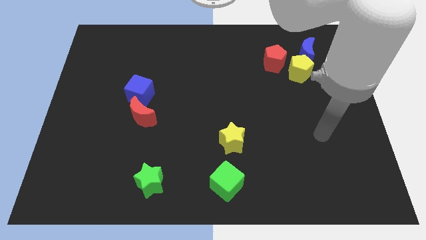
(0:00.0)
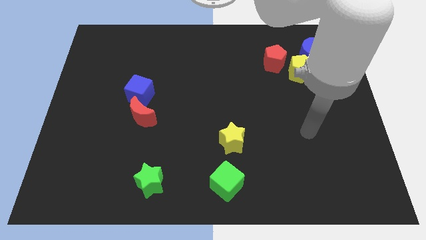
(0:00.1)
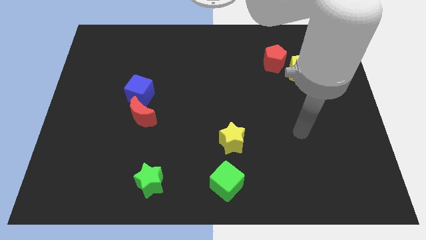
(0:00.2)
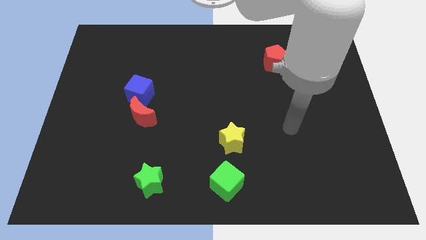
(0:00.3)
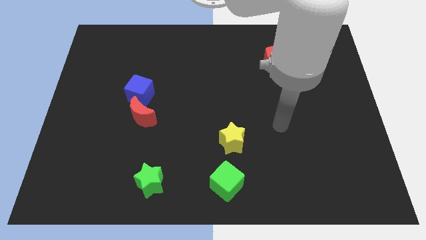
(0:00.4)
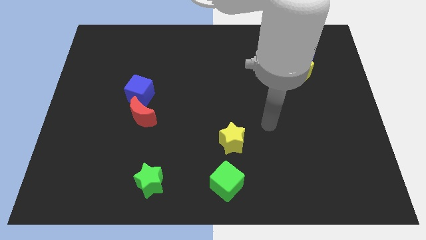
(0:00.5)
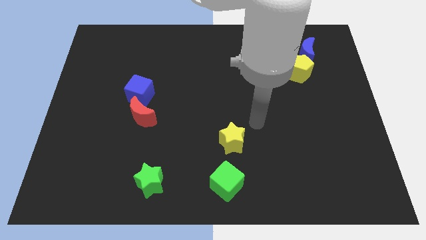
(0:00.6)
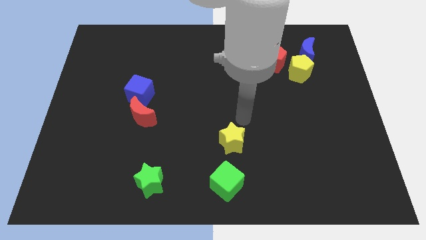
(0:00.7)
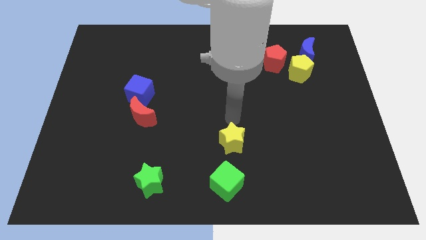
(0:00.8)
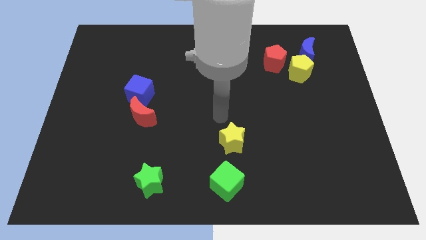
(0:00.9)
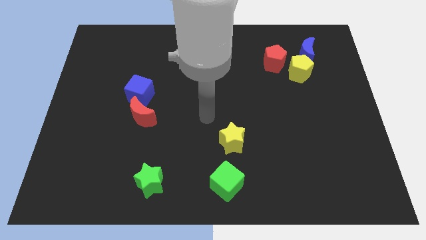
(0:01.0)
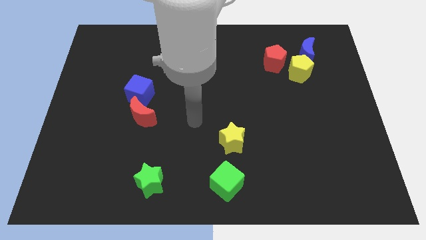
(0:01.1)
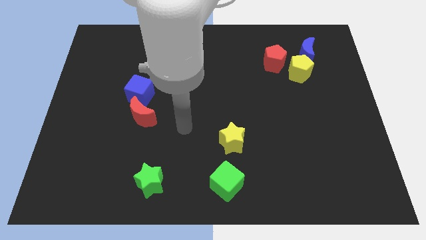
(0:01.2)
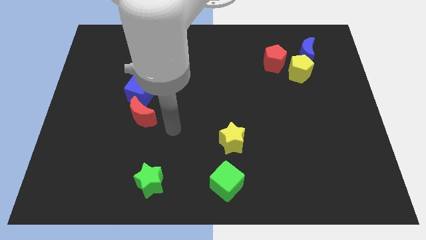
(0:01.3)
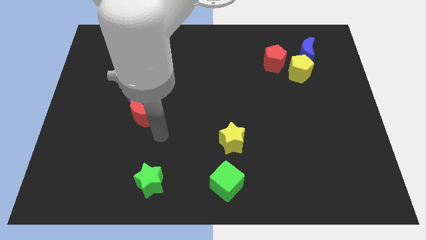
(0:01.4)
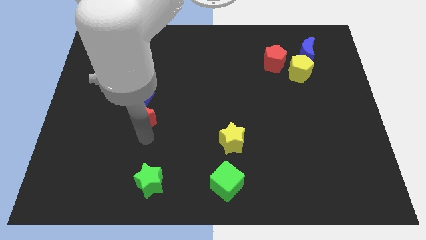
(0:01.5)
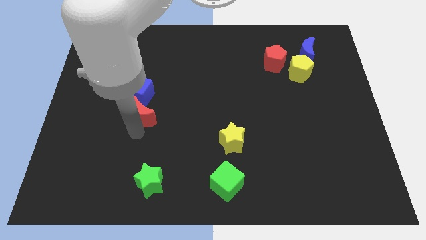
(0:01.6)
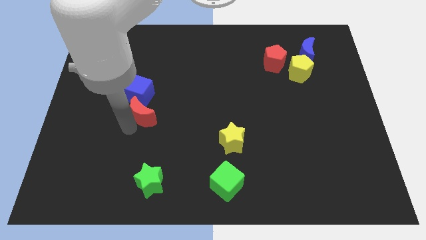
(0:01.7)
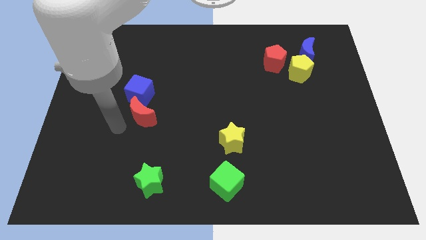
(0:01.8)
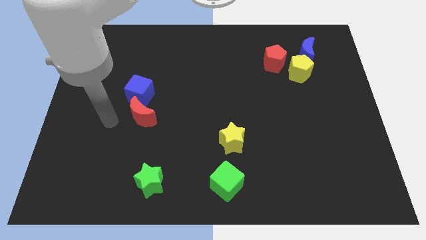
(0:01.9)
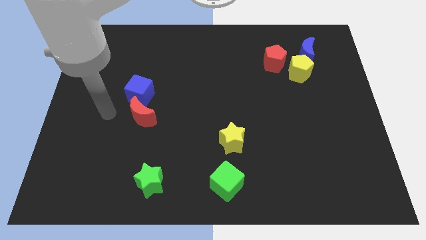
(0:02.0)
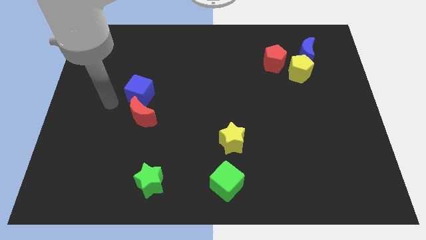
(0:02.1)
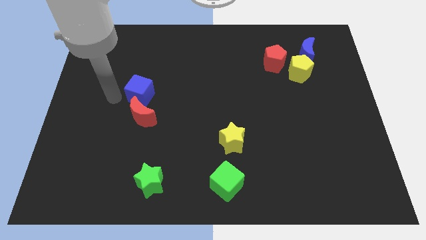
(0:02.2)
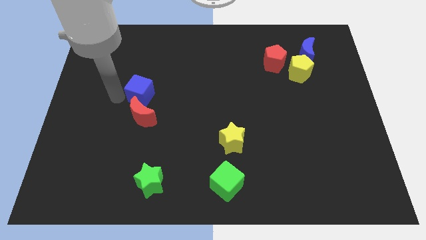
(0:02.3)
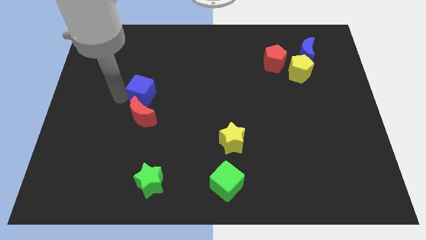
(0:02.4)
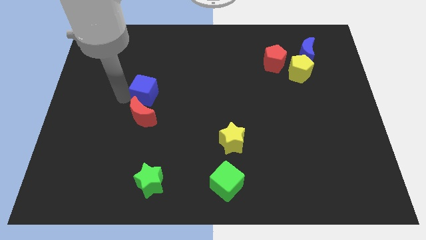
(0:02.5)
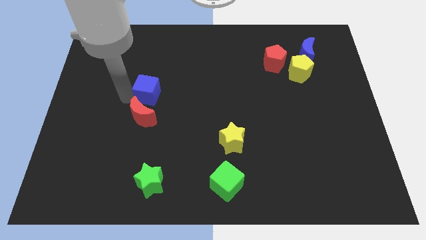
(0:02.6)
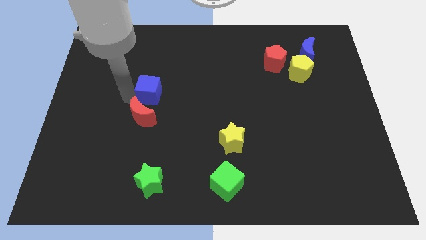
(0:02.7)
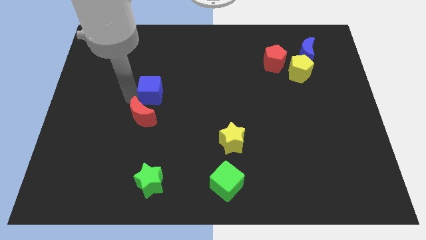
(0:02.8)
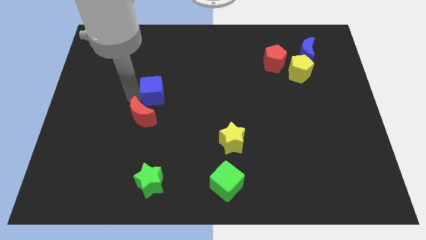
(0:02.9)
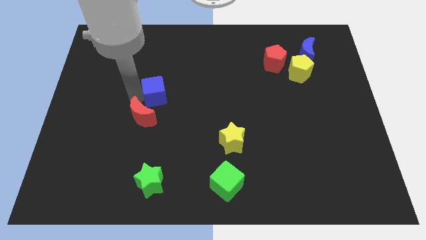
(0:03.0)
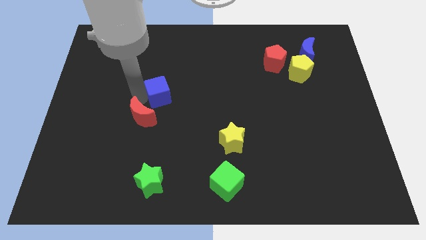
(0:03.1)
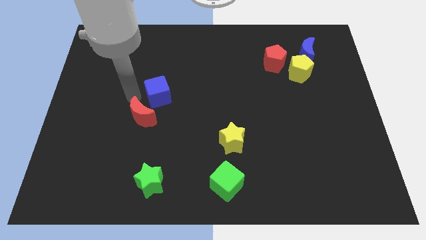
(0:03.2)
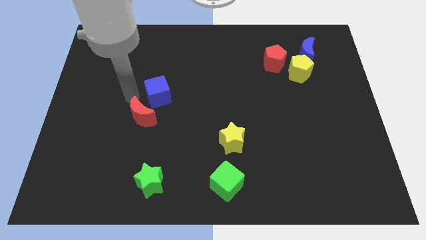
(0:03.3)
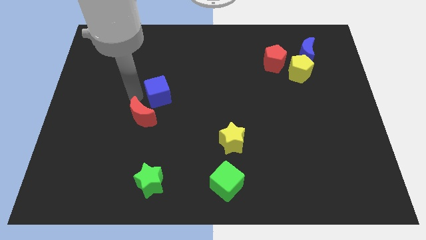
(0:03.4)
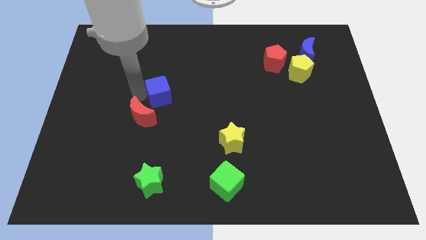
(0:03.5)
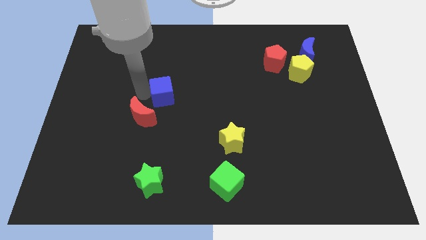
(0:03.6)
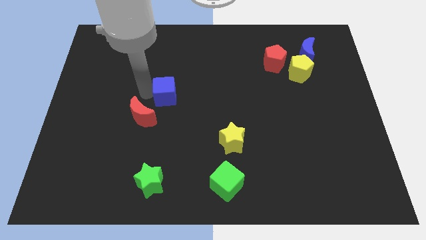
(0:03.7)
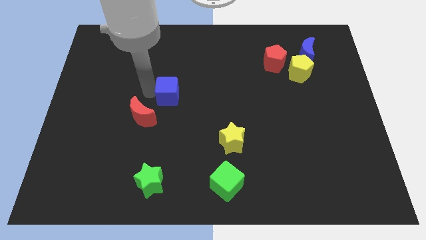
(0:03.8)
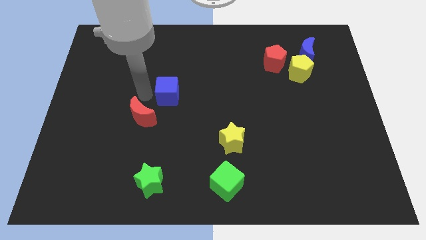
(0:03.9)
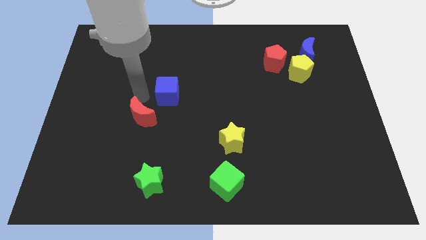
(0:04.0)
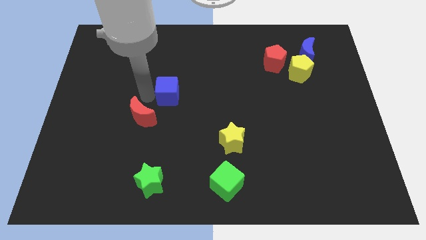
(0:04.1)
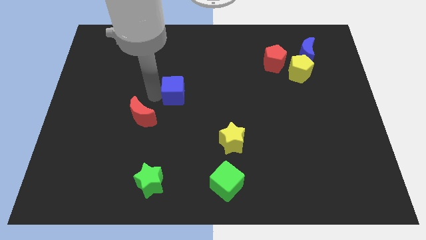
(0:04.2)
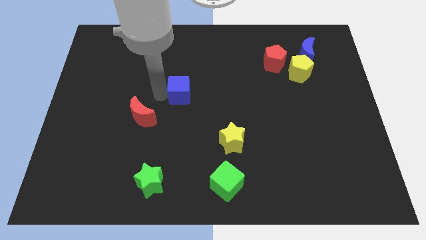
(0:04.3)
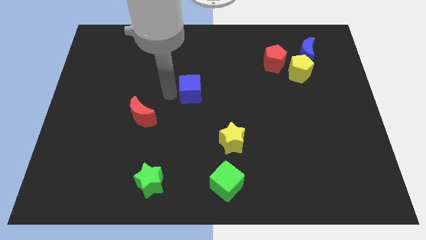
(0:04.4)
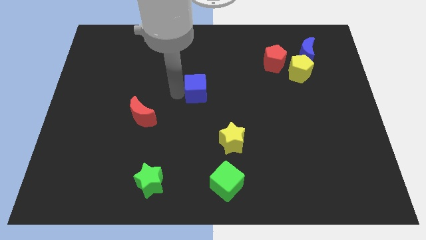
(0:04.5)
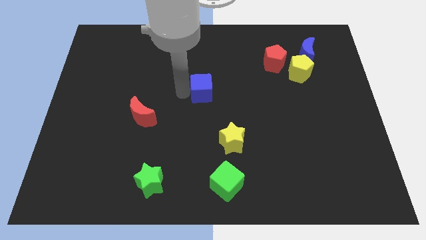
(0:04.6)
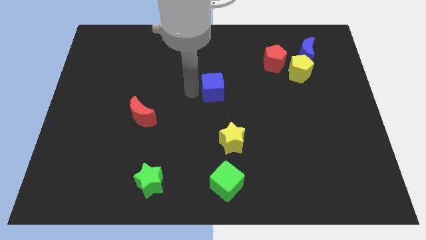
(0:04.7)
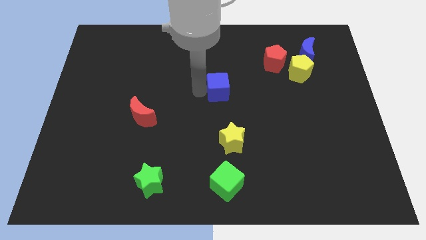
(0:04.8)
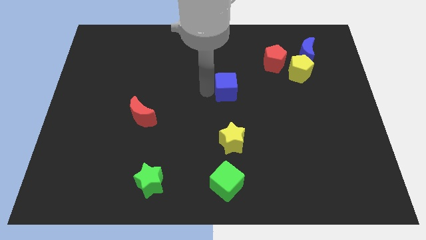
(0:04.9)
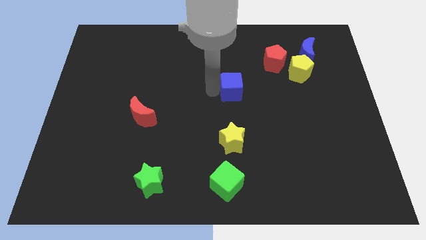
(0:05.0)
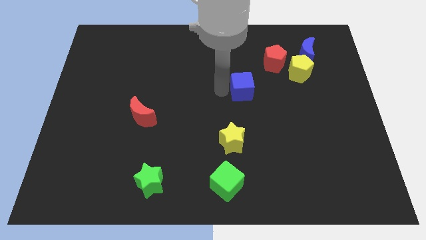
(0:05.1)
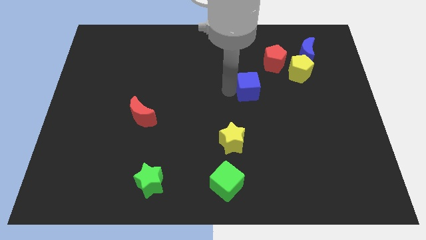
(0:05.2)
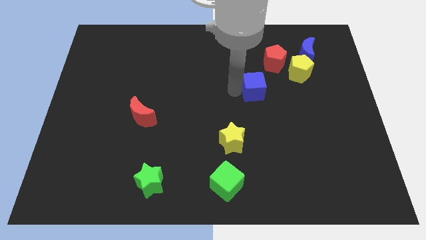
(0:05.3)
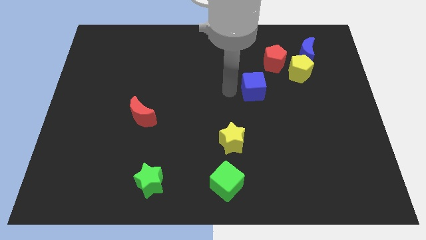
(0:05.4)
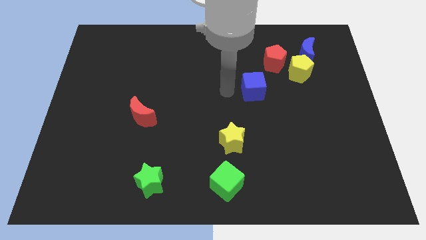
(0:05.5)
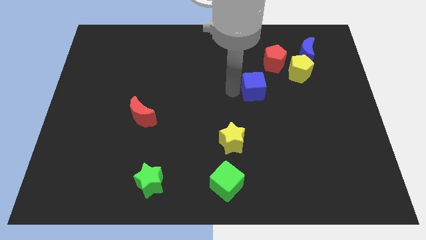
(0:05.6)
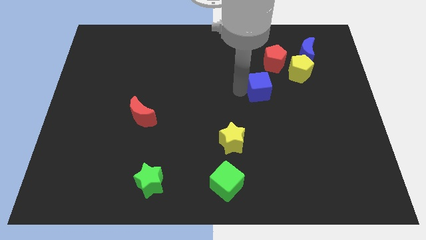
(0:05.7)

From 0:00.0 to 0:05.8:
put the blue cube diagonally down and to the left of the yellow pentagon

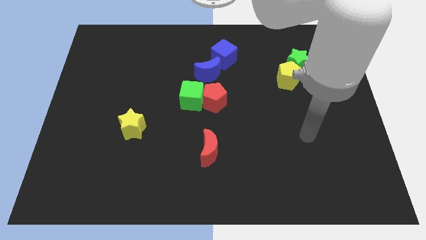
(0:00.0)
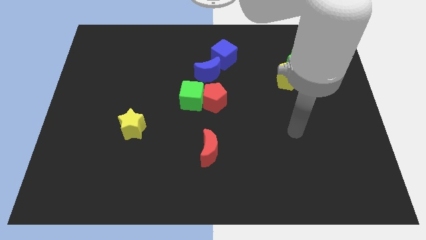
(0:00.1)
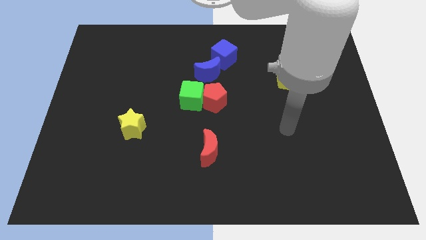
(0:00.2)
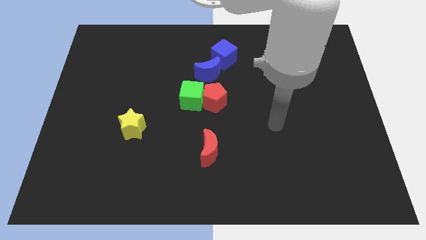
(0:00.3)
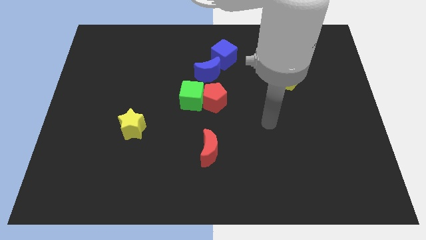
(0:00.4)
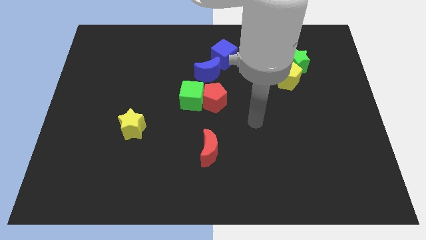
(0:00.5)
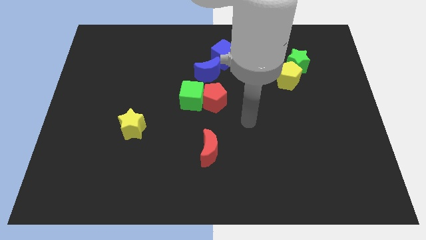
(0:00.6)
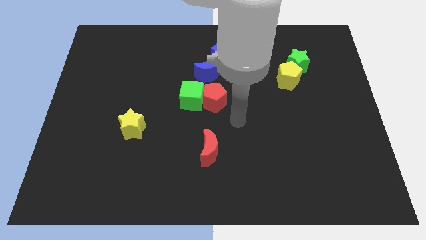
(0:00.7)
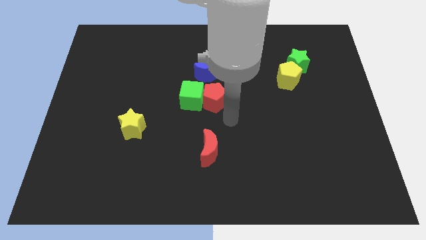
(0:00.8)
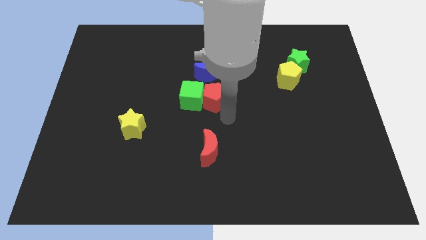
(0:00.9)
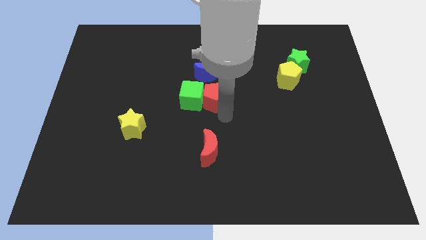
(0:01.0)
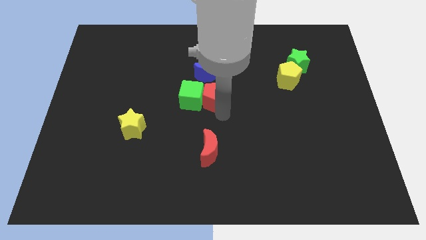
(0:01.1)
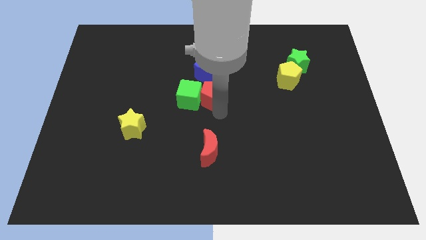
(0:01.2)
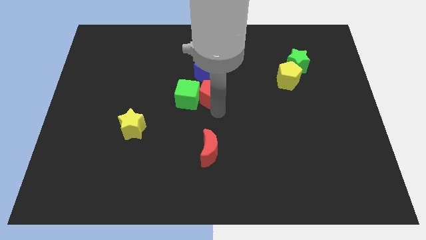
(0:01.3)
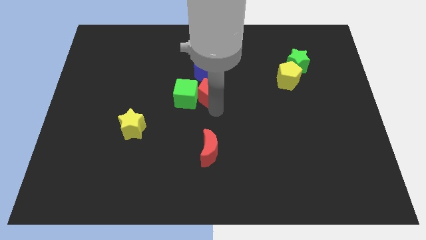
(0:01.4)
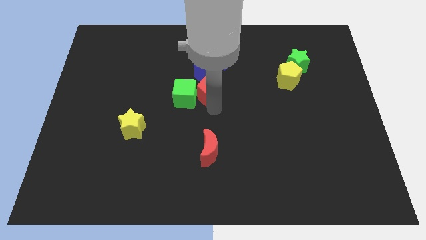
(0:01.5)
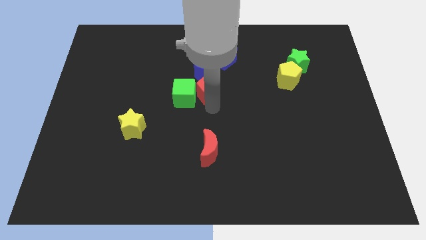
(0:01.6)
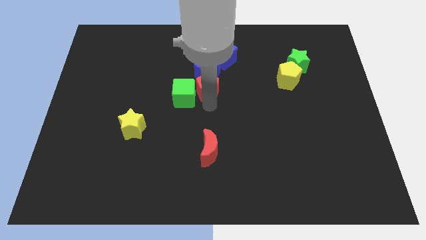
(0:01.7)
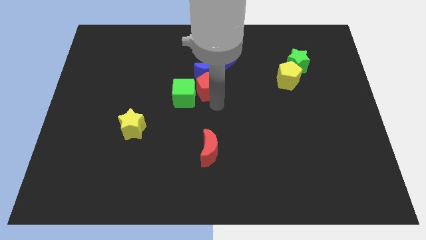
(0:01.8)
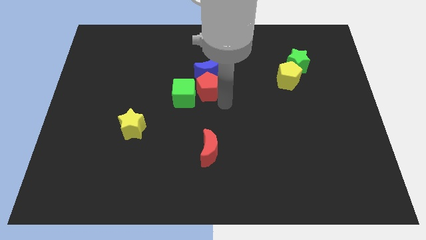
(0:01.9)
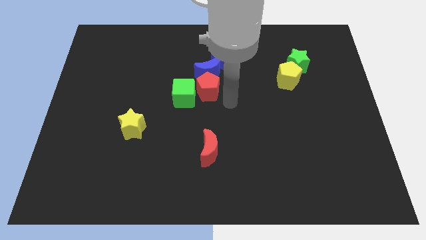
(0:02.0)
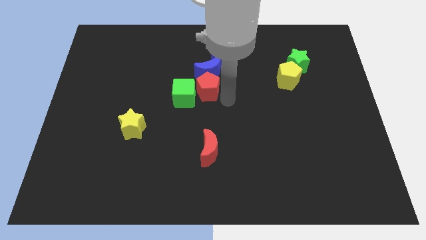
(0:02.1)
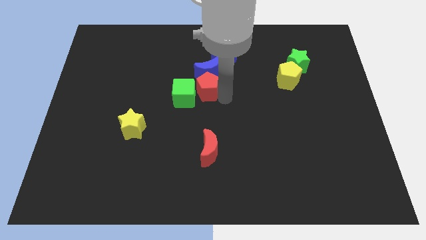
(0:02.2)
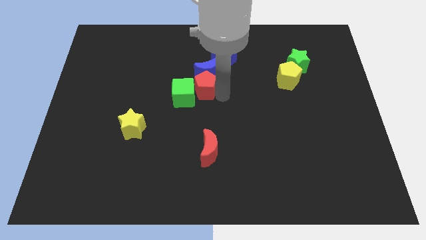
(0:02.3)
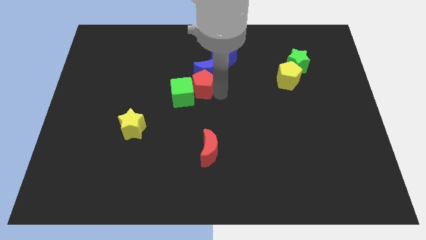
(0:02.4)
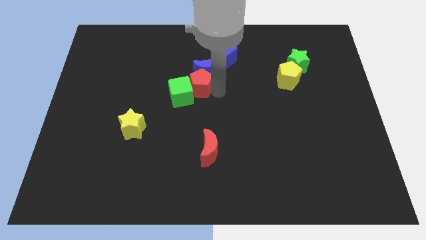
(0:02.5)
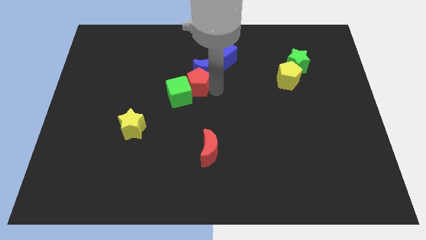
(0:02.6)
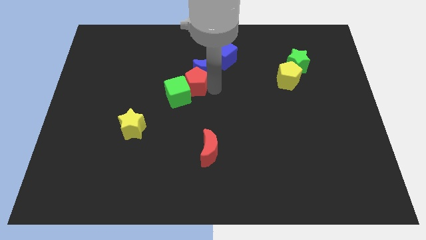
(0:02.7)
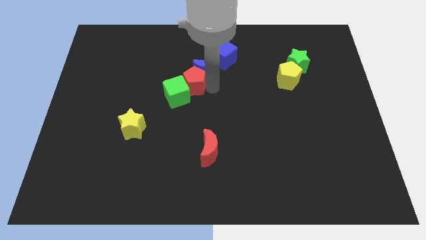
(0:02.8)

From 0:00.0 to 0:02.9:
push the red pentagon to the left of the blue moon
